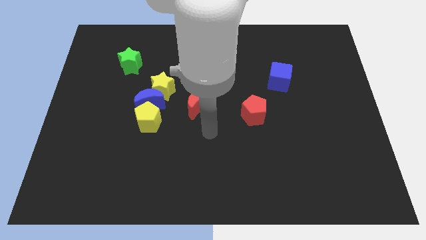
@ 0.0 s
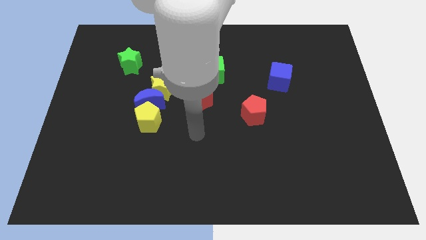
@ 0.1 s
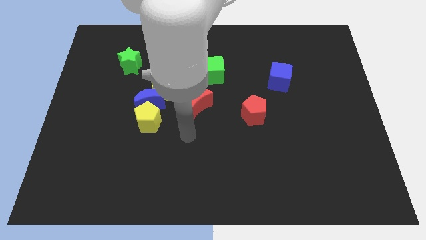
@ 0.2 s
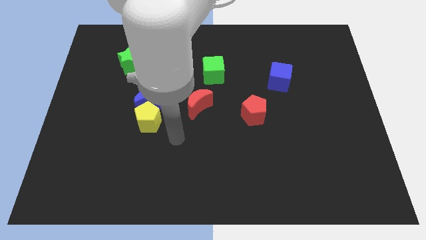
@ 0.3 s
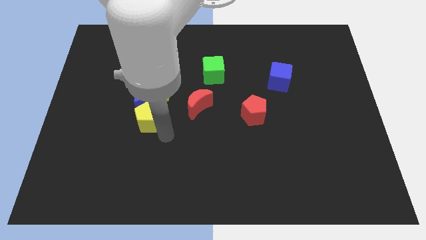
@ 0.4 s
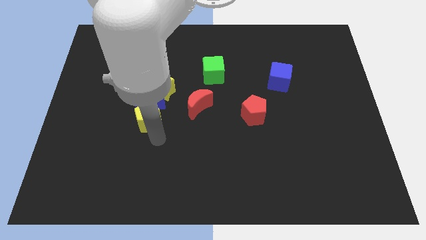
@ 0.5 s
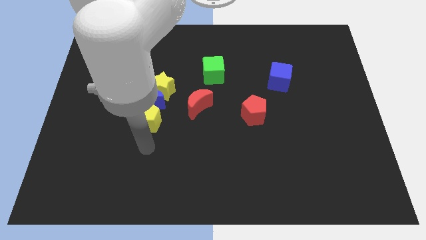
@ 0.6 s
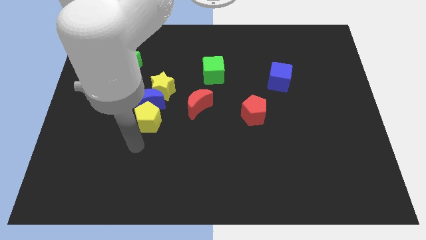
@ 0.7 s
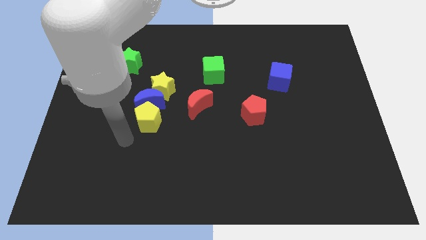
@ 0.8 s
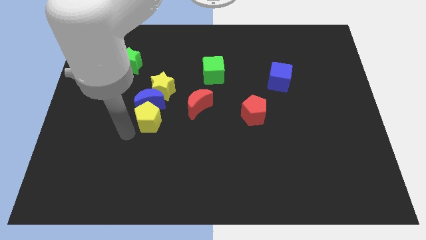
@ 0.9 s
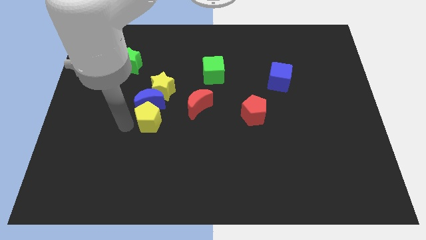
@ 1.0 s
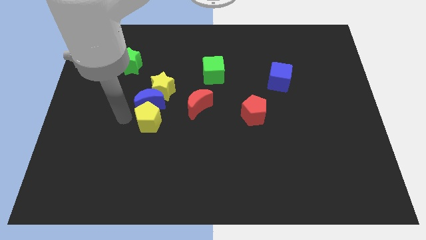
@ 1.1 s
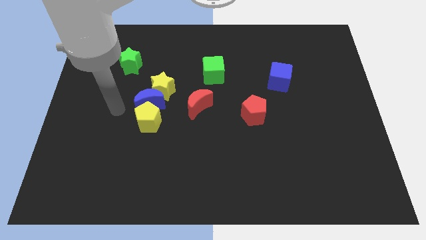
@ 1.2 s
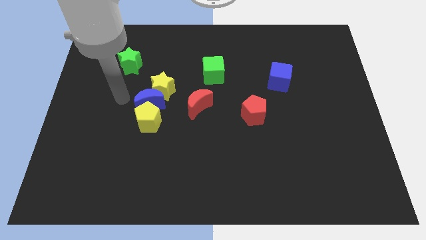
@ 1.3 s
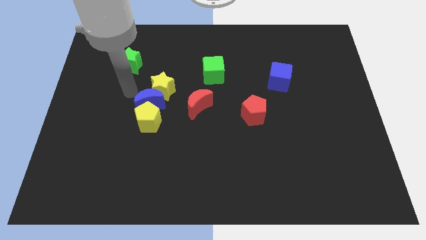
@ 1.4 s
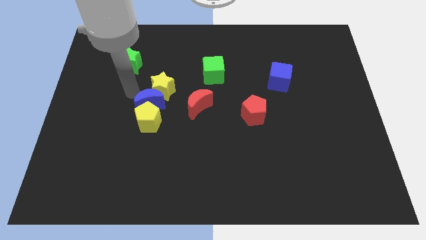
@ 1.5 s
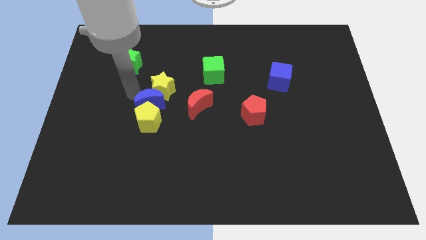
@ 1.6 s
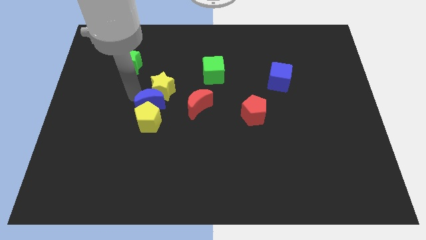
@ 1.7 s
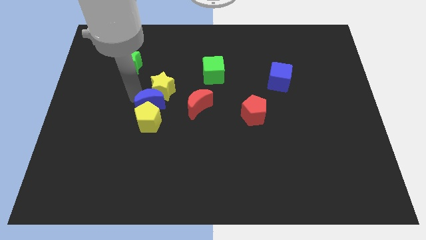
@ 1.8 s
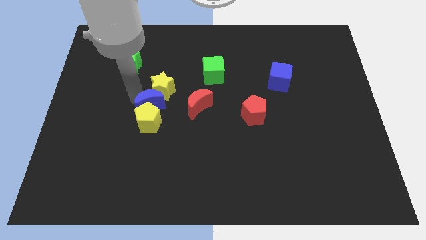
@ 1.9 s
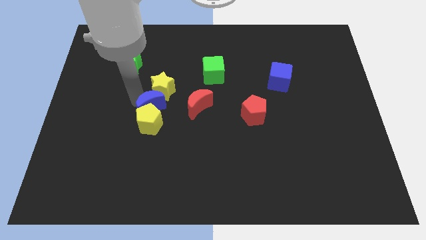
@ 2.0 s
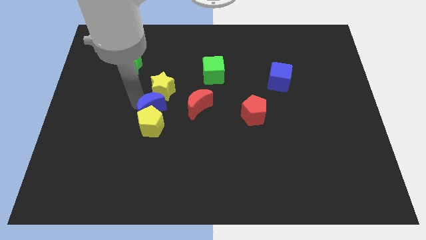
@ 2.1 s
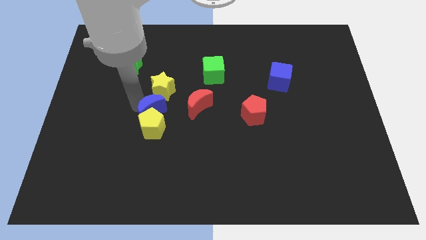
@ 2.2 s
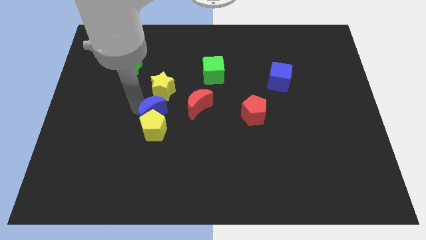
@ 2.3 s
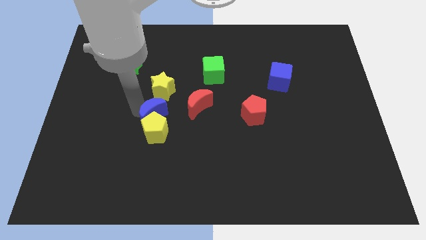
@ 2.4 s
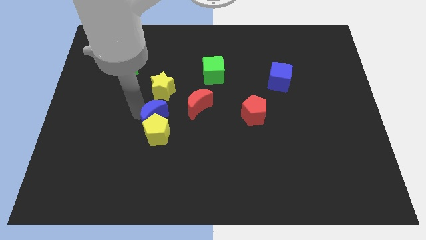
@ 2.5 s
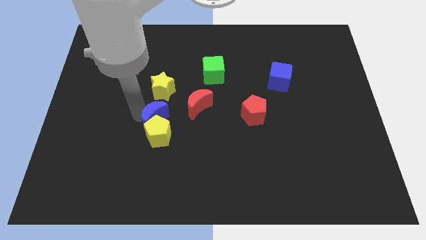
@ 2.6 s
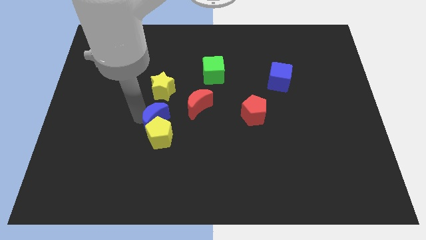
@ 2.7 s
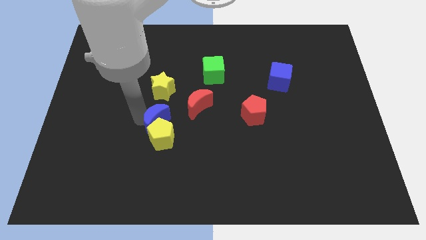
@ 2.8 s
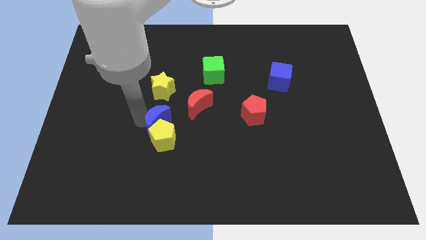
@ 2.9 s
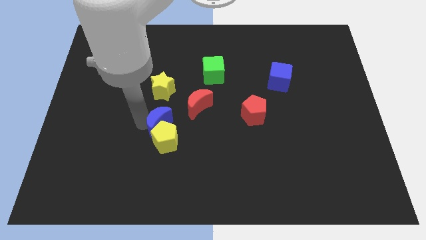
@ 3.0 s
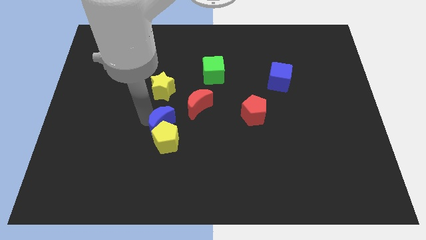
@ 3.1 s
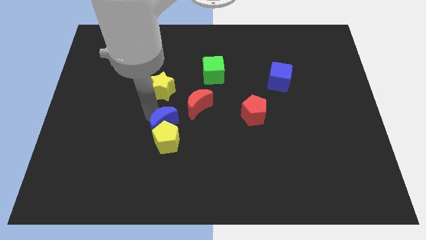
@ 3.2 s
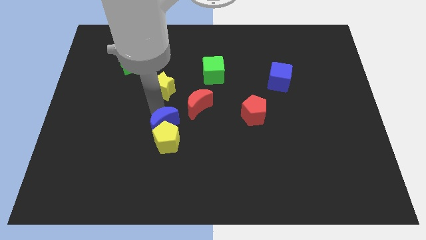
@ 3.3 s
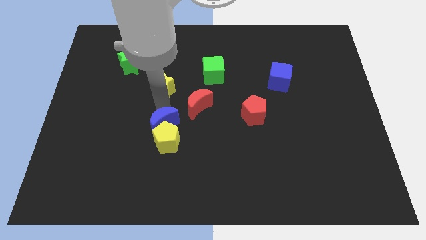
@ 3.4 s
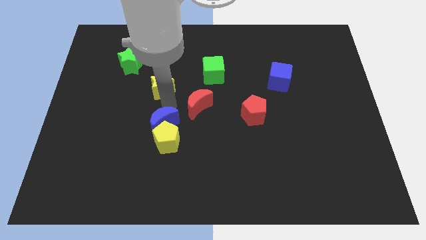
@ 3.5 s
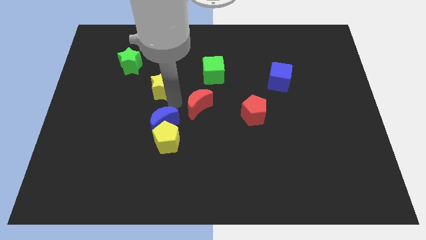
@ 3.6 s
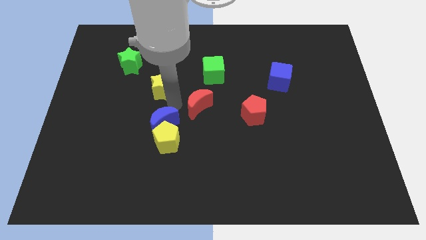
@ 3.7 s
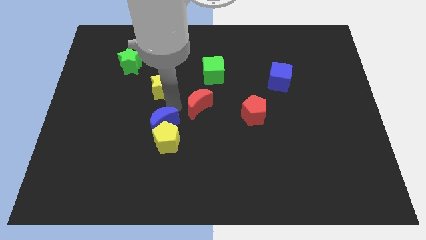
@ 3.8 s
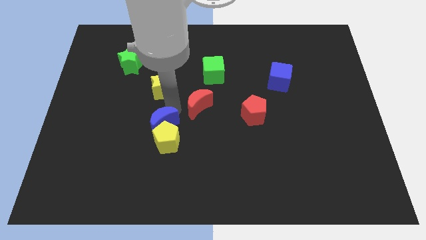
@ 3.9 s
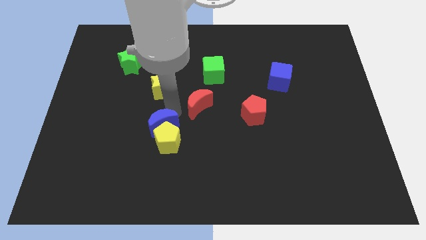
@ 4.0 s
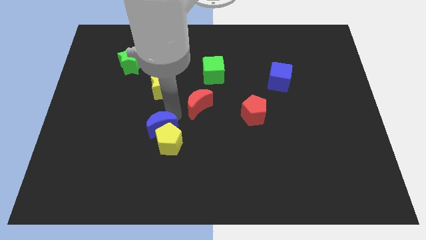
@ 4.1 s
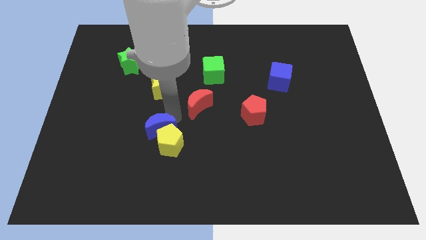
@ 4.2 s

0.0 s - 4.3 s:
move the blue moon downwards a bit

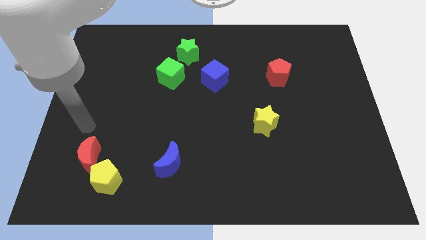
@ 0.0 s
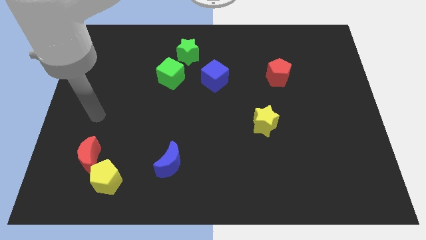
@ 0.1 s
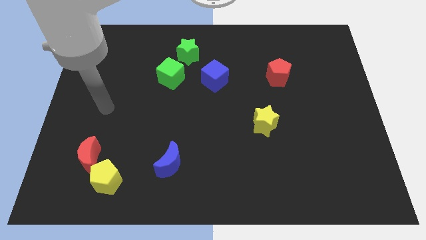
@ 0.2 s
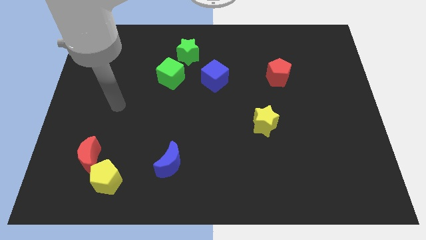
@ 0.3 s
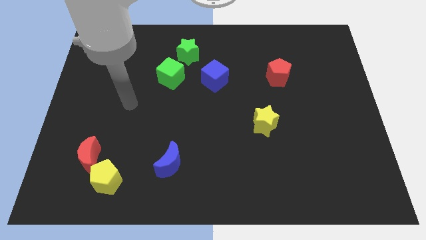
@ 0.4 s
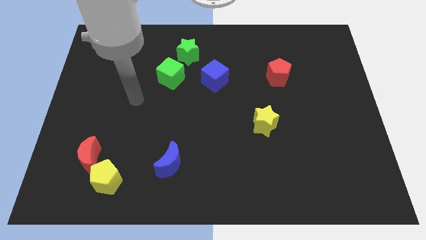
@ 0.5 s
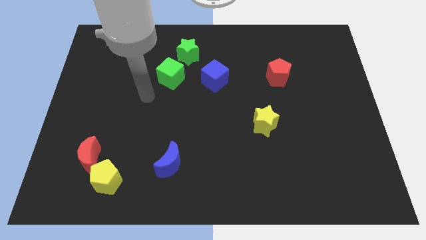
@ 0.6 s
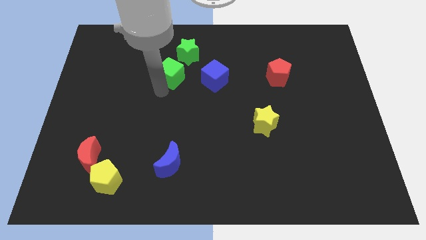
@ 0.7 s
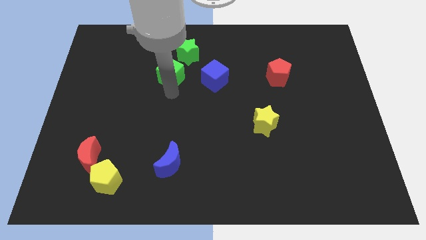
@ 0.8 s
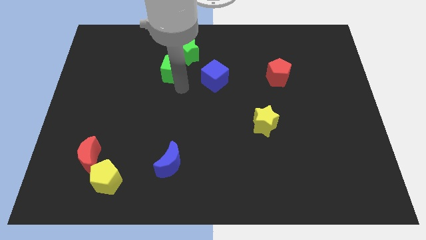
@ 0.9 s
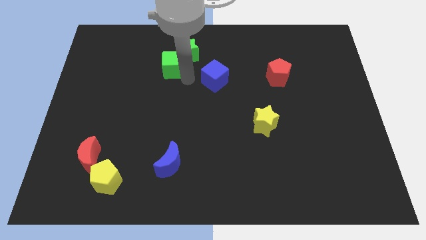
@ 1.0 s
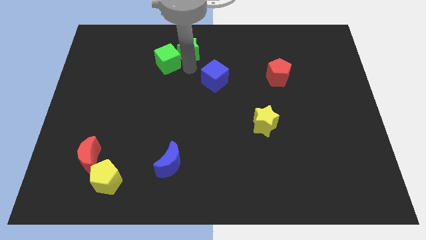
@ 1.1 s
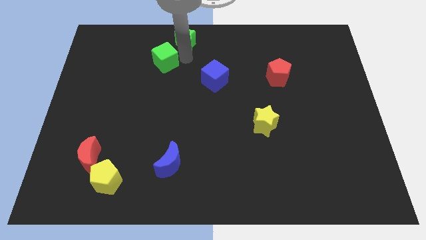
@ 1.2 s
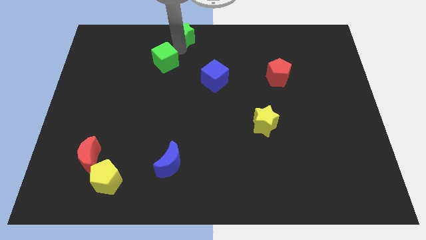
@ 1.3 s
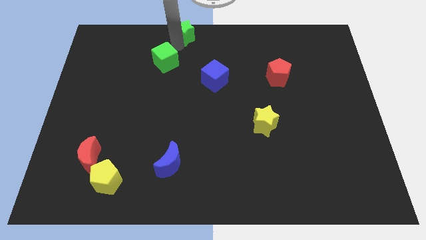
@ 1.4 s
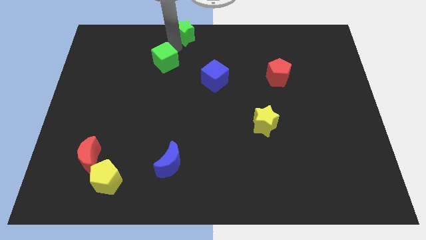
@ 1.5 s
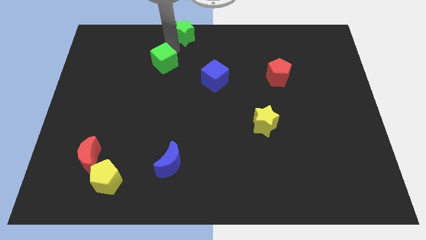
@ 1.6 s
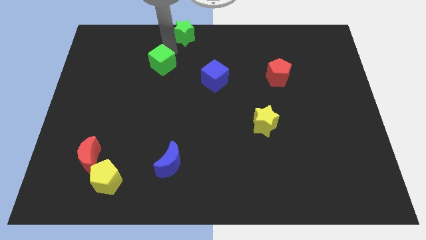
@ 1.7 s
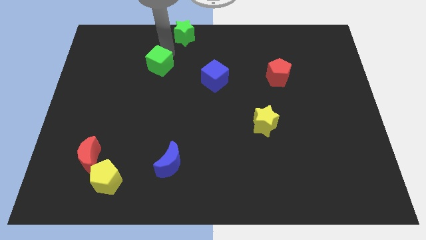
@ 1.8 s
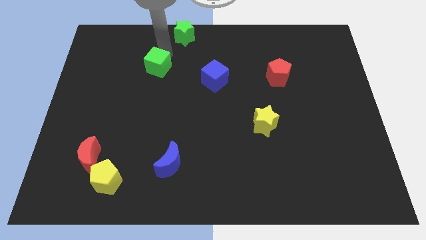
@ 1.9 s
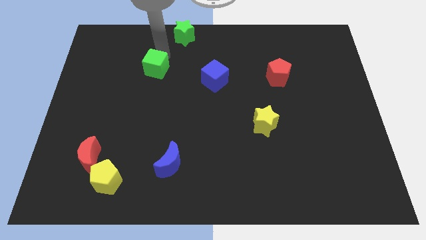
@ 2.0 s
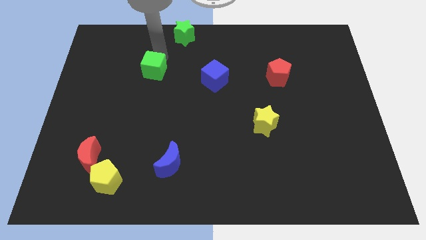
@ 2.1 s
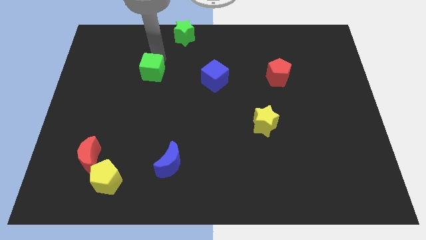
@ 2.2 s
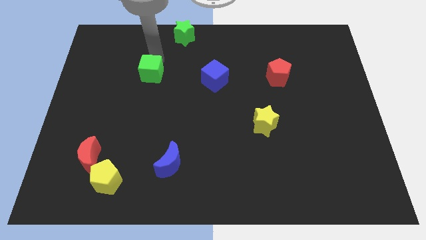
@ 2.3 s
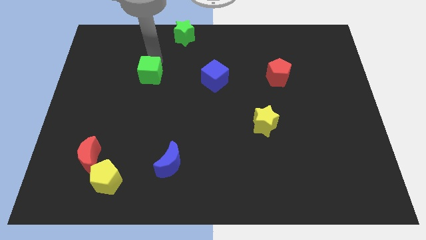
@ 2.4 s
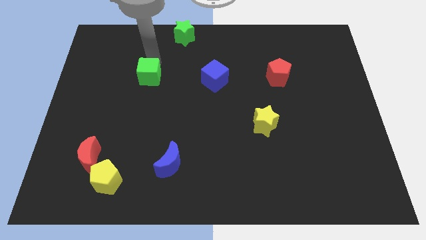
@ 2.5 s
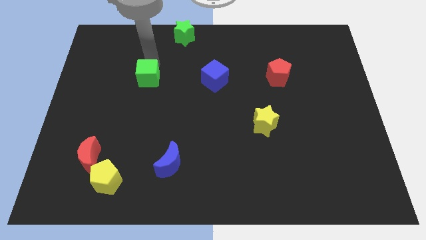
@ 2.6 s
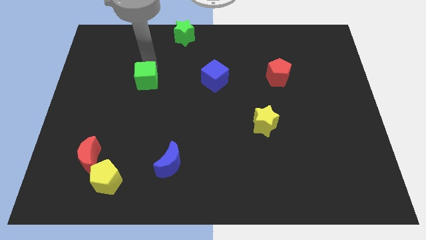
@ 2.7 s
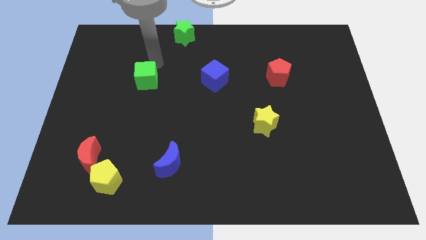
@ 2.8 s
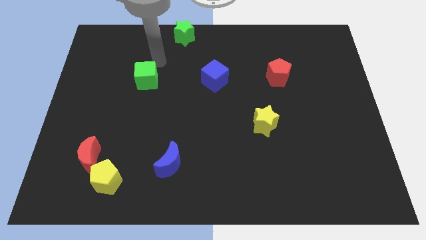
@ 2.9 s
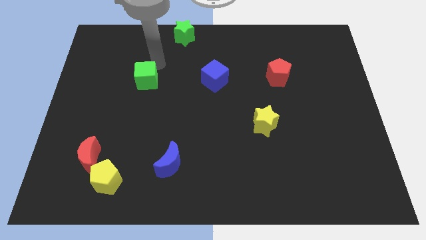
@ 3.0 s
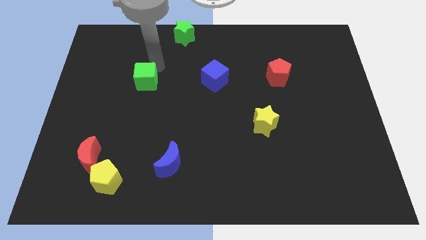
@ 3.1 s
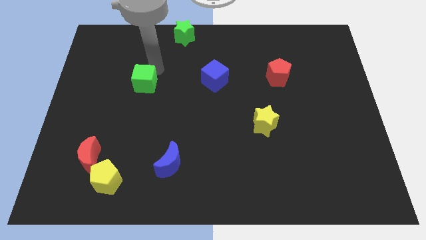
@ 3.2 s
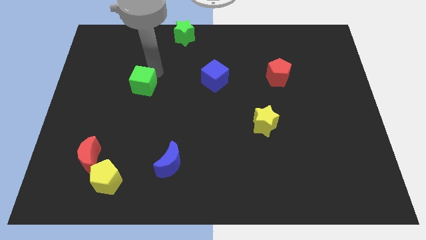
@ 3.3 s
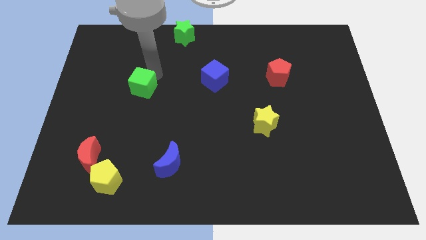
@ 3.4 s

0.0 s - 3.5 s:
slightly move the green cube downwards and left

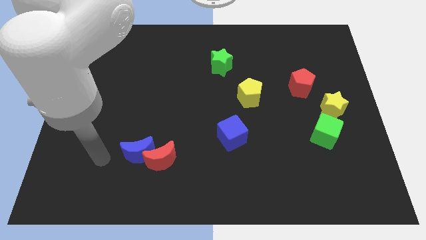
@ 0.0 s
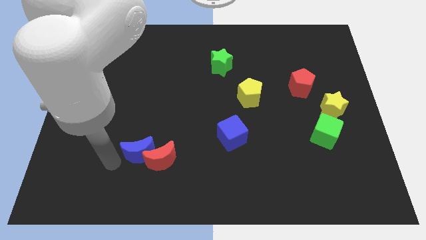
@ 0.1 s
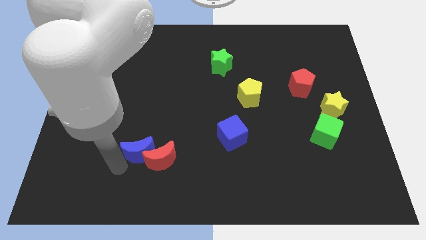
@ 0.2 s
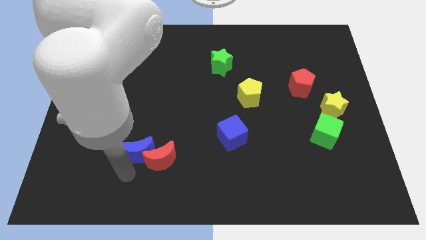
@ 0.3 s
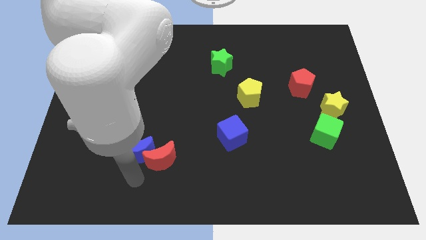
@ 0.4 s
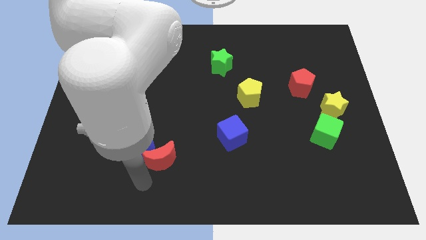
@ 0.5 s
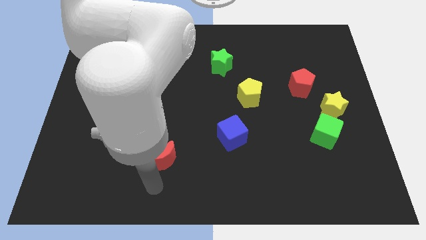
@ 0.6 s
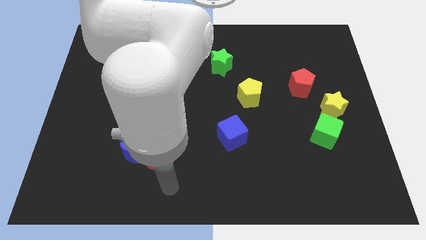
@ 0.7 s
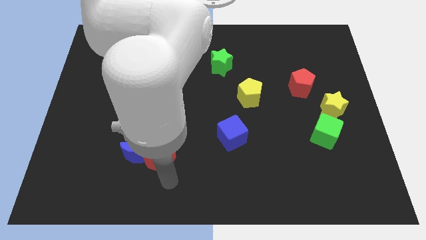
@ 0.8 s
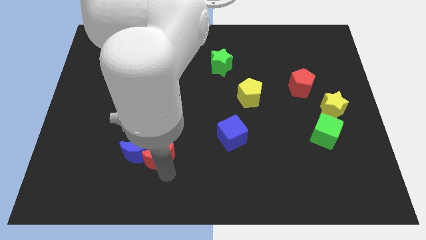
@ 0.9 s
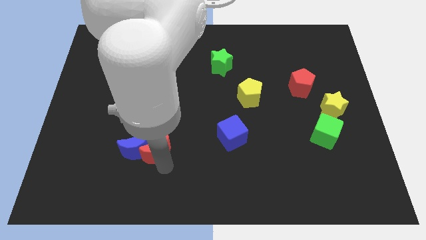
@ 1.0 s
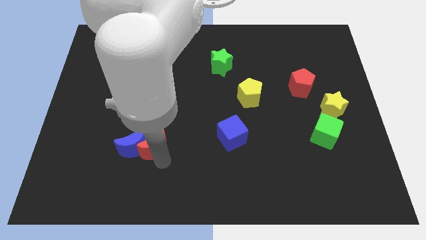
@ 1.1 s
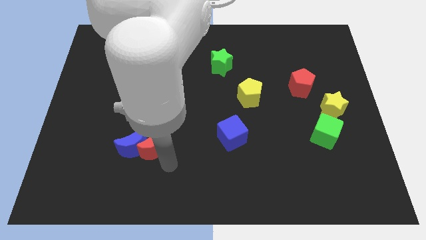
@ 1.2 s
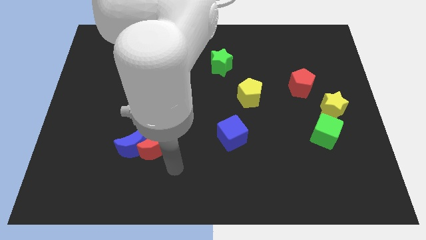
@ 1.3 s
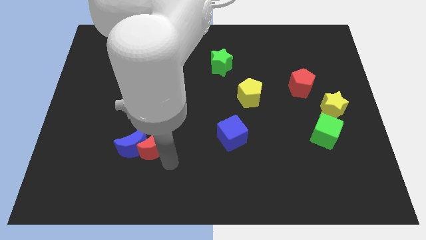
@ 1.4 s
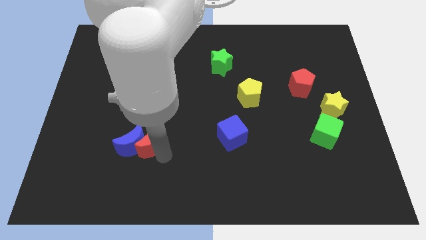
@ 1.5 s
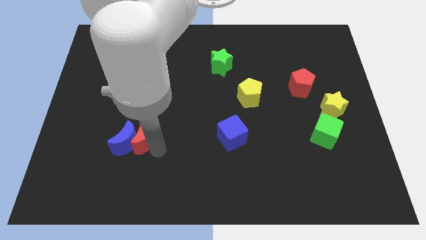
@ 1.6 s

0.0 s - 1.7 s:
slightly slide the red moon up and to the left
